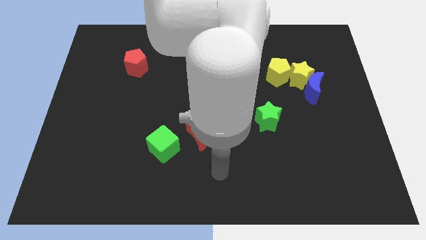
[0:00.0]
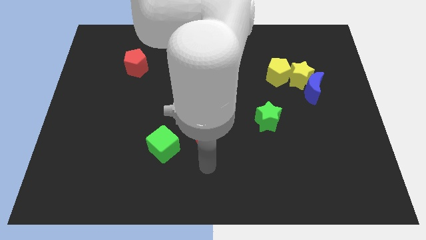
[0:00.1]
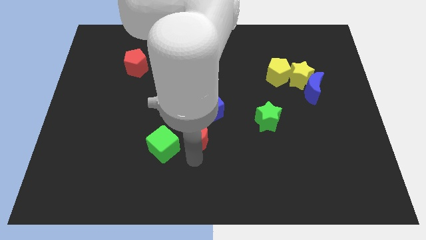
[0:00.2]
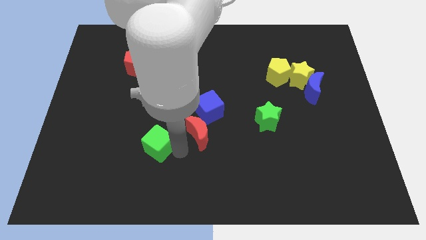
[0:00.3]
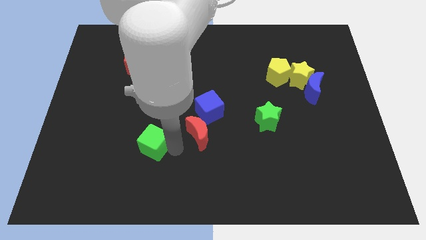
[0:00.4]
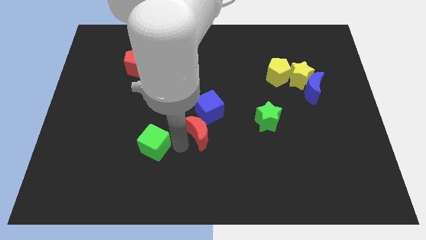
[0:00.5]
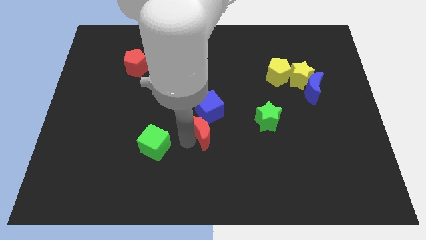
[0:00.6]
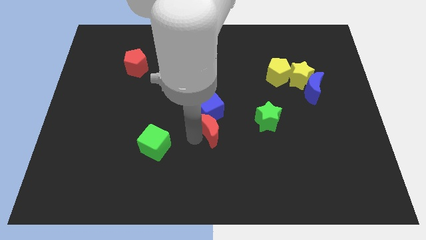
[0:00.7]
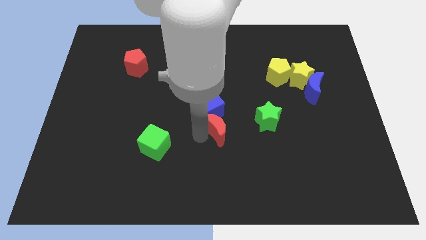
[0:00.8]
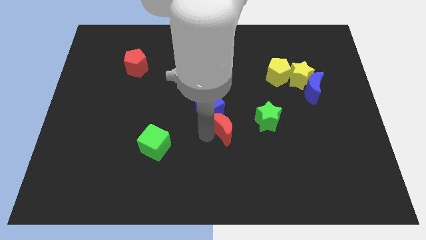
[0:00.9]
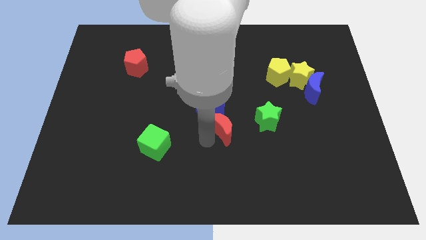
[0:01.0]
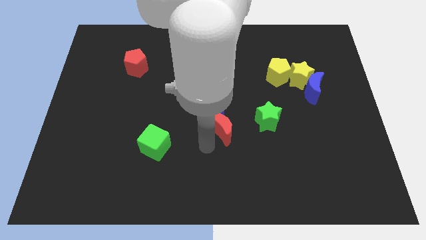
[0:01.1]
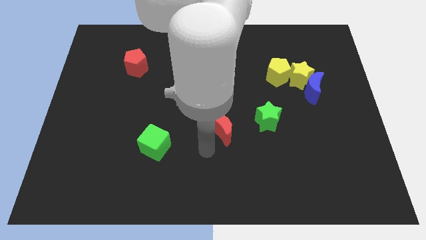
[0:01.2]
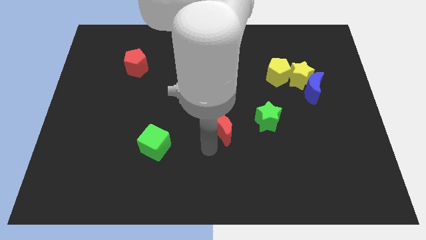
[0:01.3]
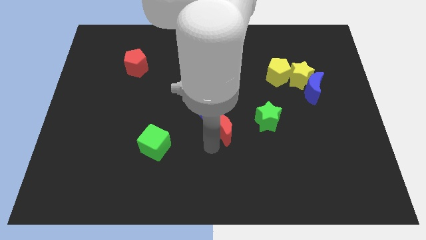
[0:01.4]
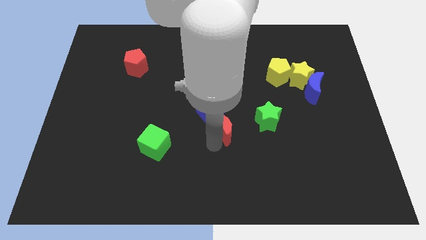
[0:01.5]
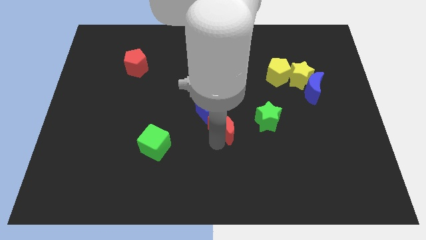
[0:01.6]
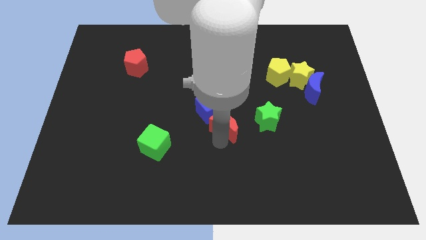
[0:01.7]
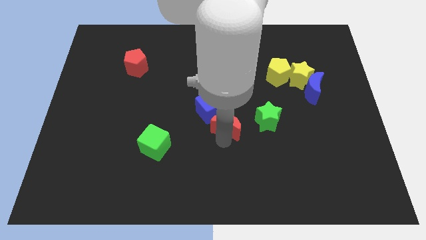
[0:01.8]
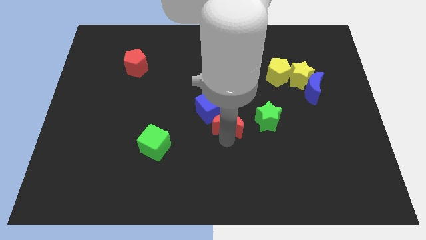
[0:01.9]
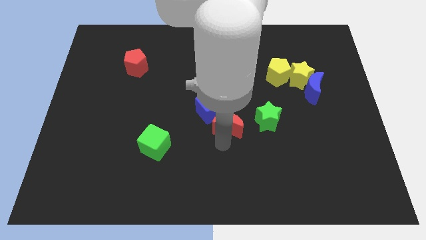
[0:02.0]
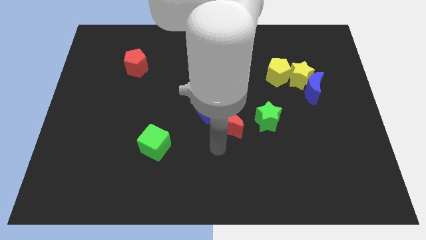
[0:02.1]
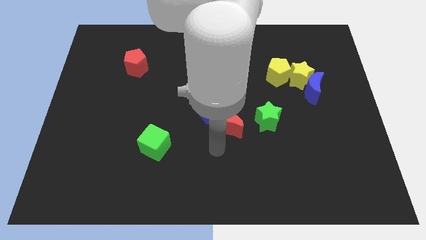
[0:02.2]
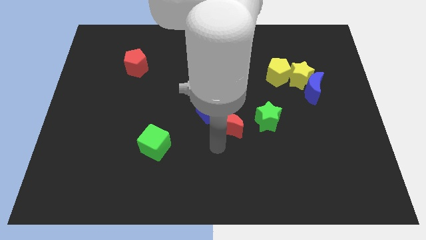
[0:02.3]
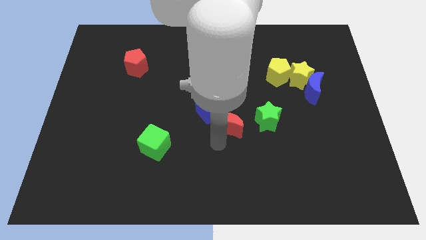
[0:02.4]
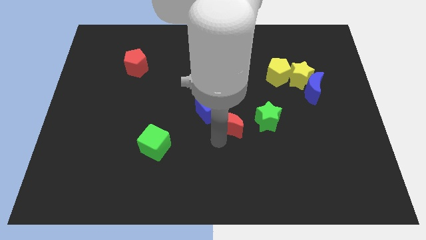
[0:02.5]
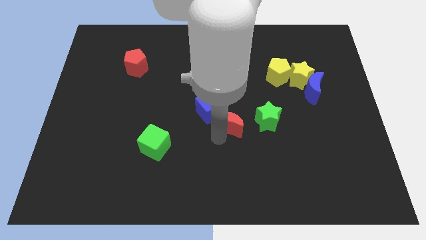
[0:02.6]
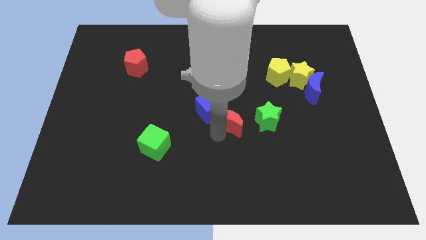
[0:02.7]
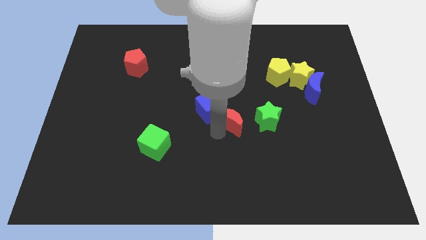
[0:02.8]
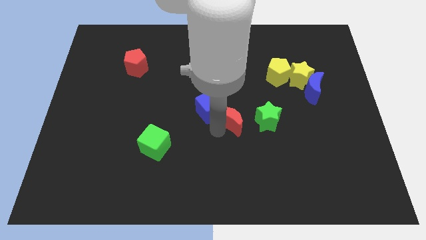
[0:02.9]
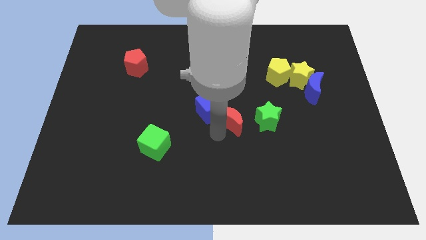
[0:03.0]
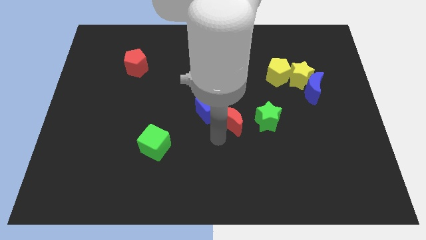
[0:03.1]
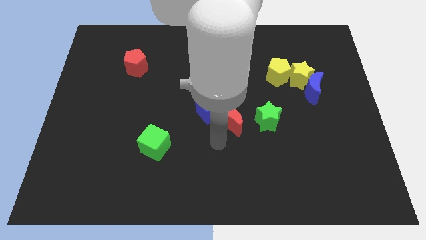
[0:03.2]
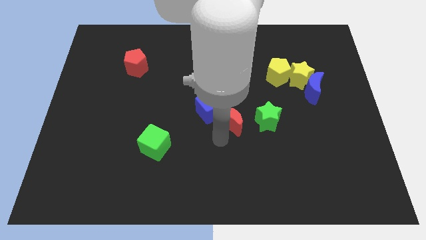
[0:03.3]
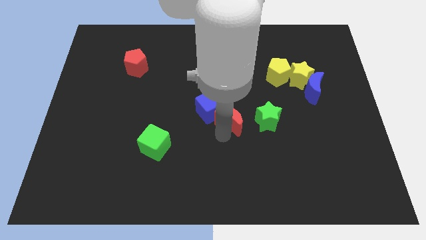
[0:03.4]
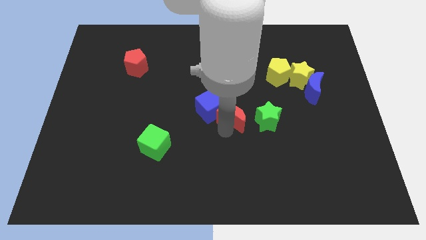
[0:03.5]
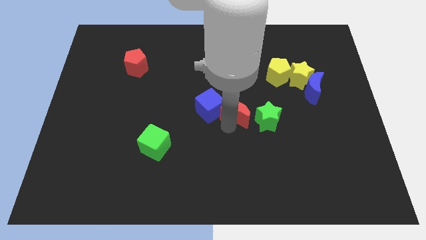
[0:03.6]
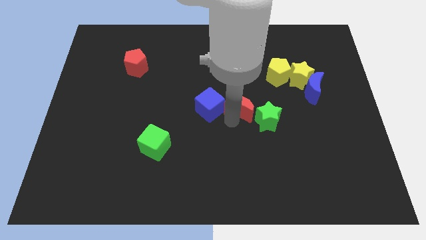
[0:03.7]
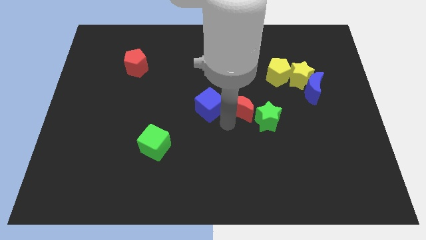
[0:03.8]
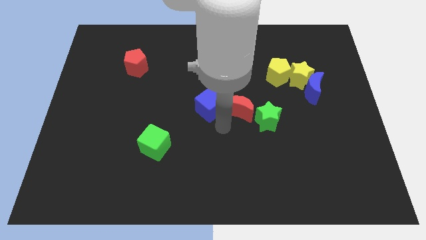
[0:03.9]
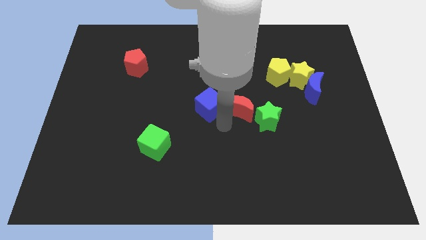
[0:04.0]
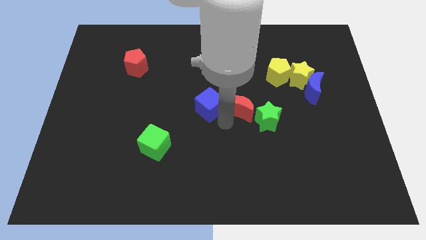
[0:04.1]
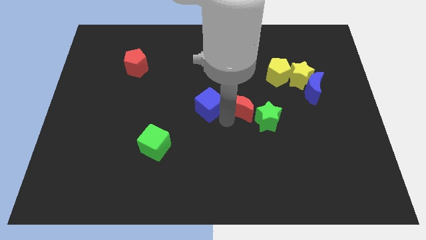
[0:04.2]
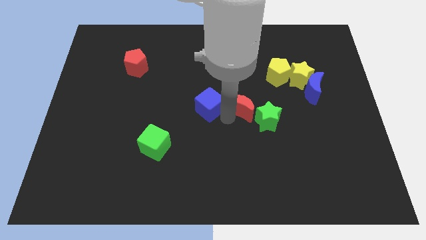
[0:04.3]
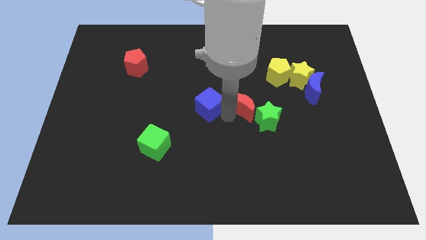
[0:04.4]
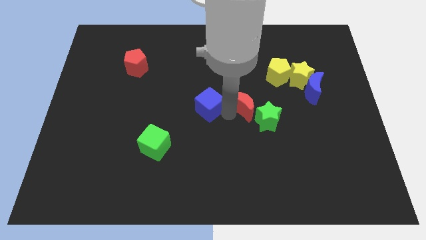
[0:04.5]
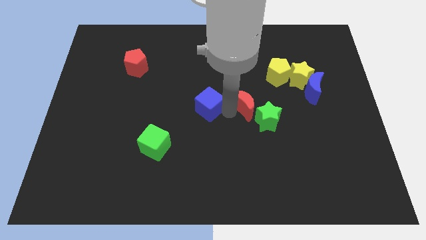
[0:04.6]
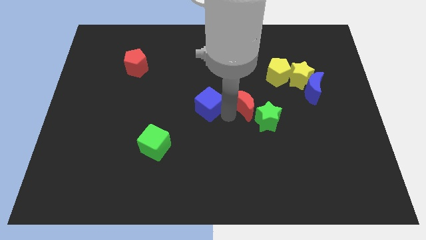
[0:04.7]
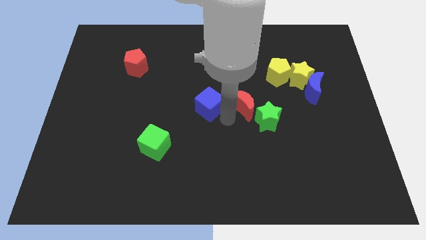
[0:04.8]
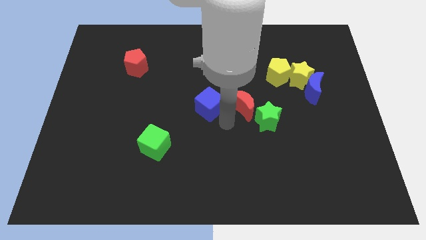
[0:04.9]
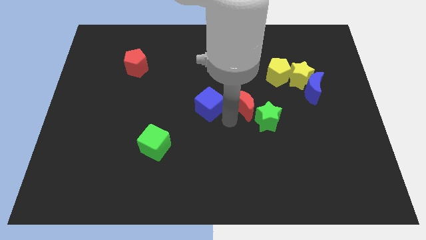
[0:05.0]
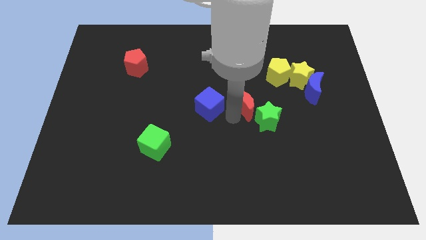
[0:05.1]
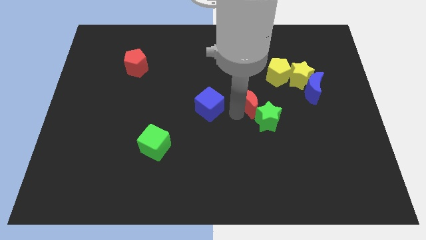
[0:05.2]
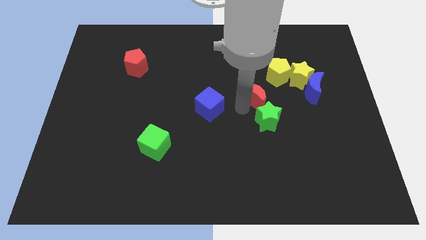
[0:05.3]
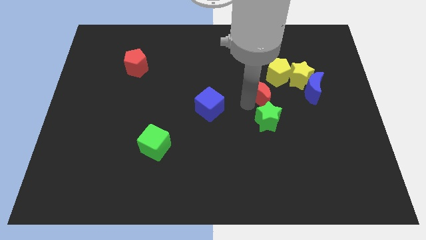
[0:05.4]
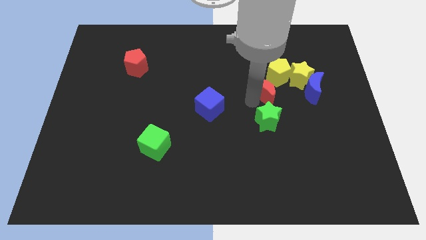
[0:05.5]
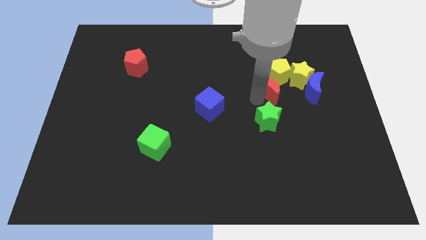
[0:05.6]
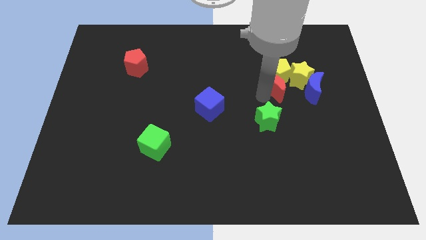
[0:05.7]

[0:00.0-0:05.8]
slide the red moon to the yellow pentagon

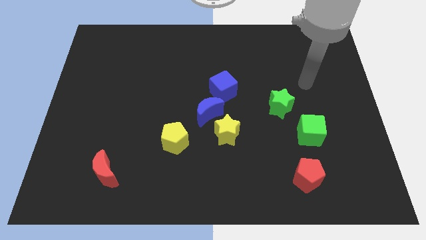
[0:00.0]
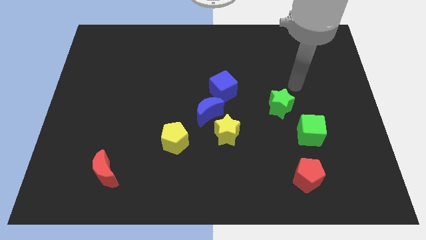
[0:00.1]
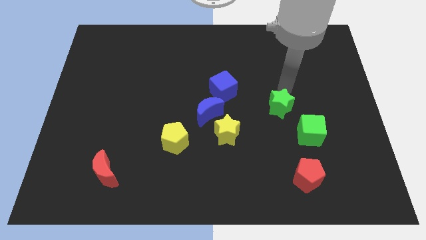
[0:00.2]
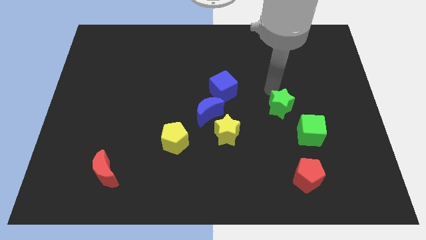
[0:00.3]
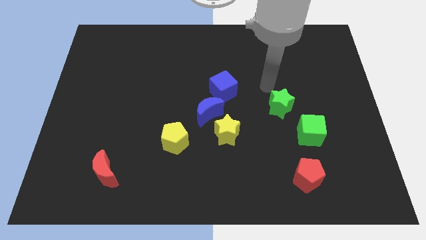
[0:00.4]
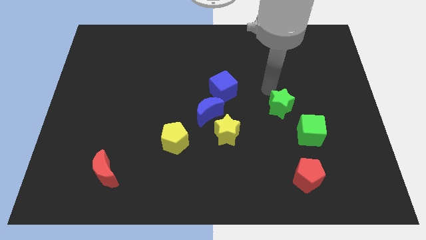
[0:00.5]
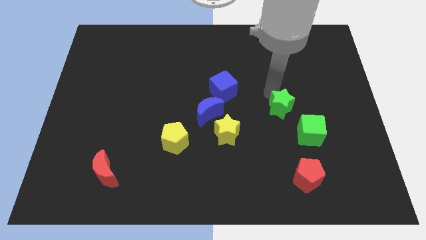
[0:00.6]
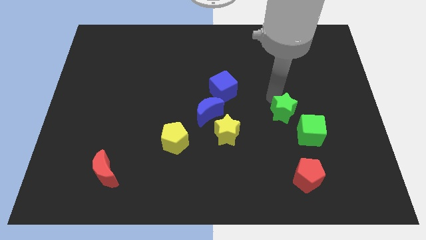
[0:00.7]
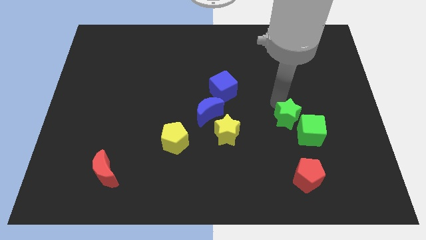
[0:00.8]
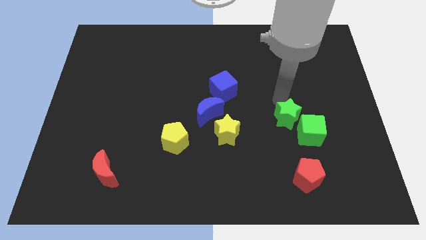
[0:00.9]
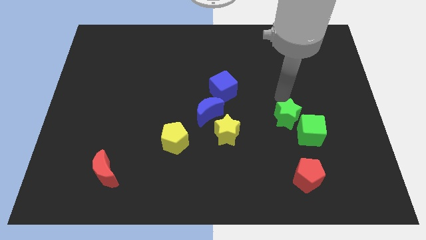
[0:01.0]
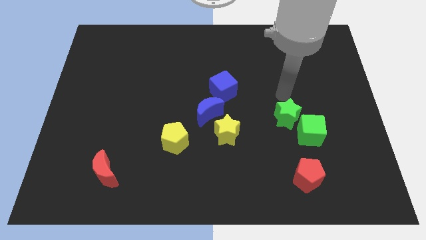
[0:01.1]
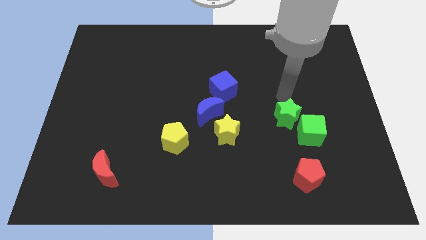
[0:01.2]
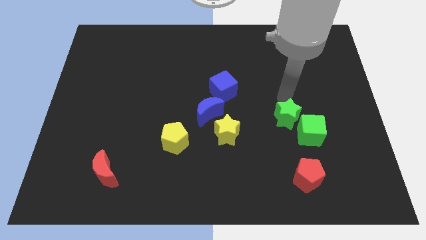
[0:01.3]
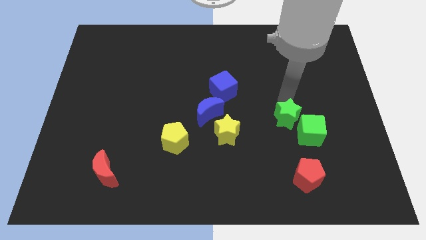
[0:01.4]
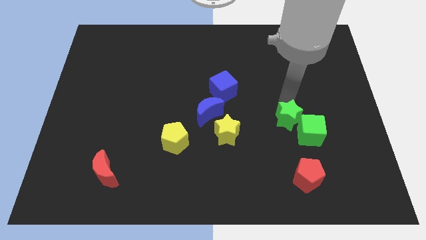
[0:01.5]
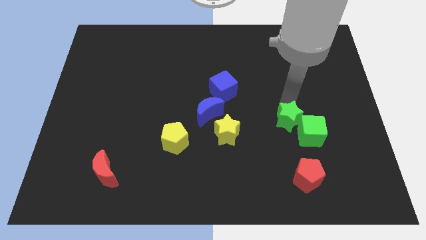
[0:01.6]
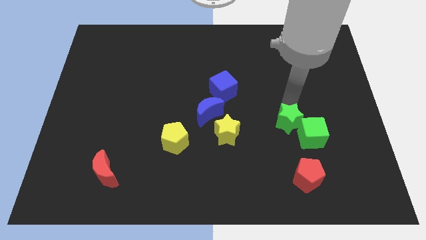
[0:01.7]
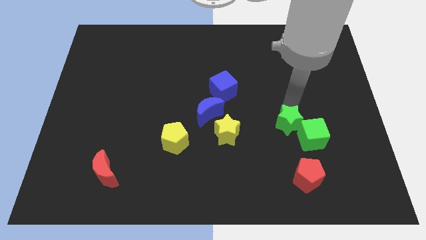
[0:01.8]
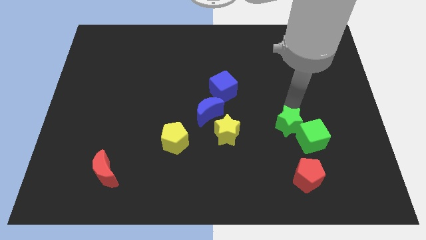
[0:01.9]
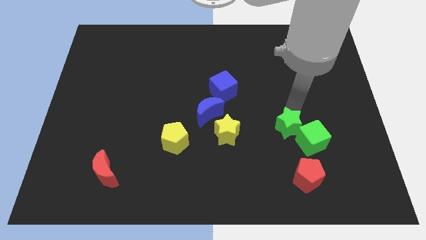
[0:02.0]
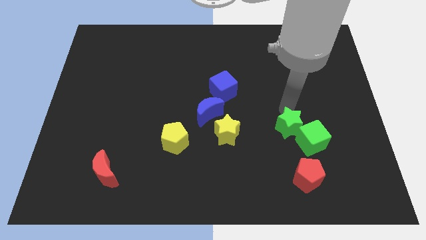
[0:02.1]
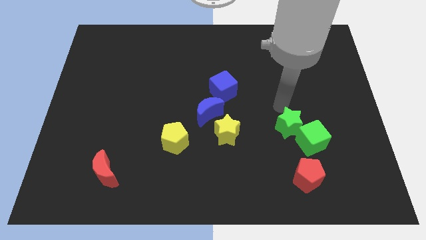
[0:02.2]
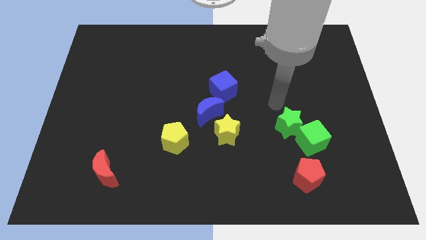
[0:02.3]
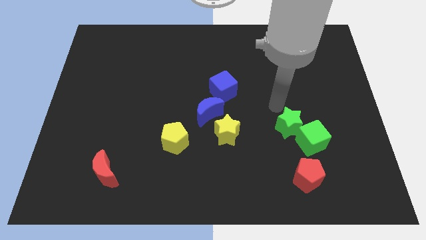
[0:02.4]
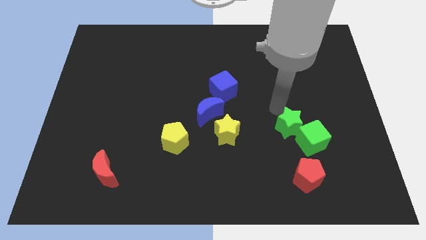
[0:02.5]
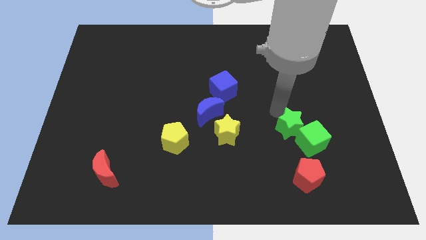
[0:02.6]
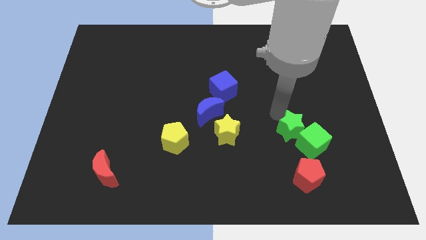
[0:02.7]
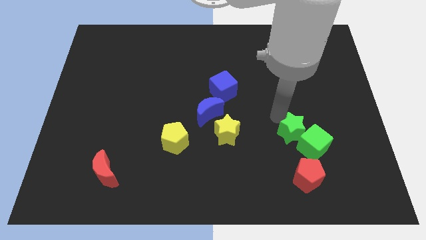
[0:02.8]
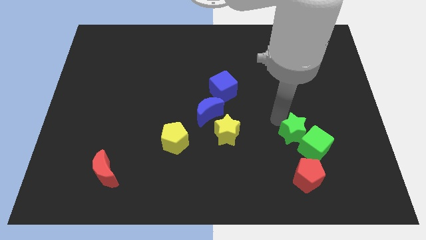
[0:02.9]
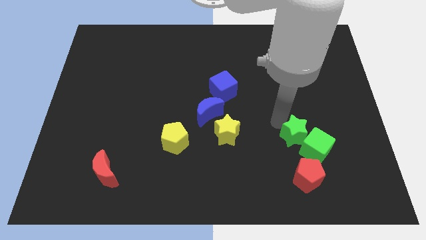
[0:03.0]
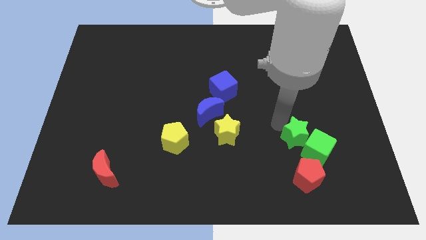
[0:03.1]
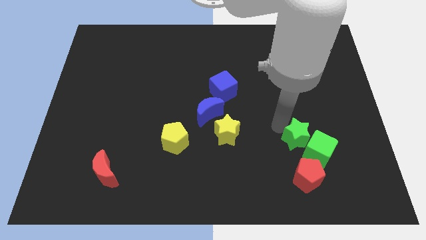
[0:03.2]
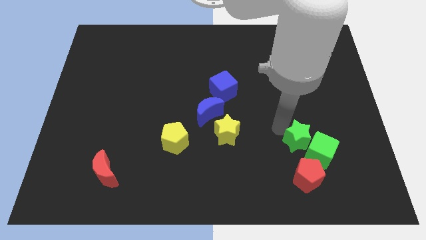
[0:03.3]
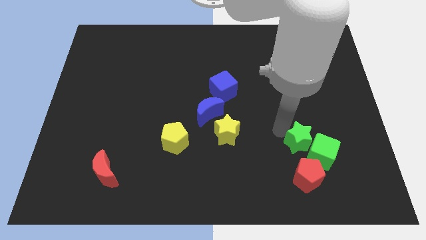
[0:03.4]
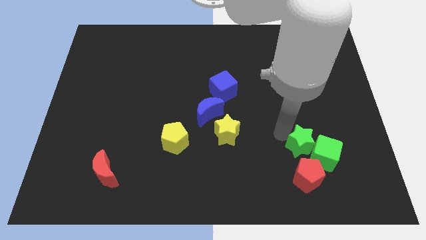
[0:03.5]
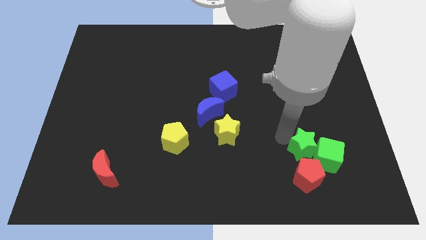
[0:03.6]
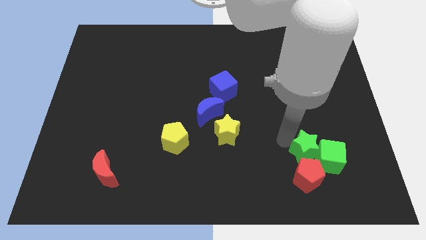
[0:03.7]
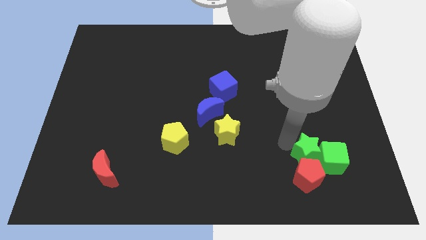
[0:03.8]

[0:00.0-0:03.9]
put the green star towards the red pentagon
